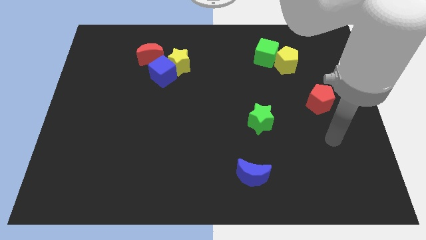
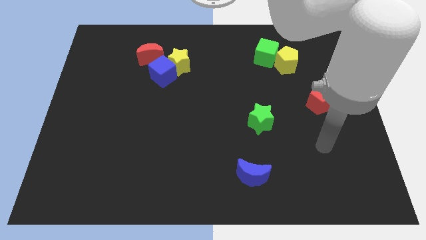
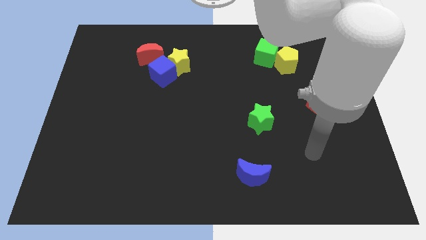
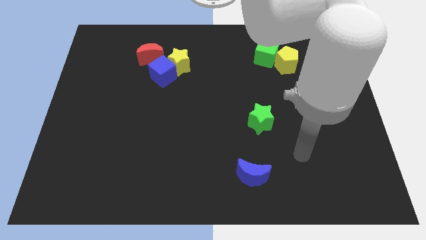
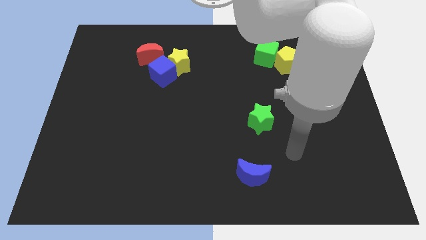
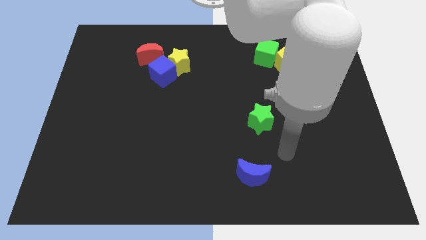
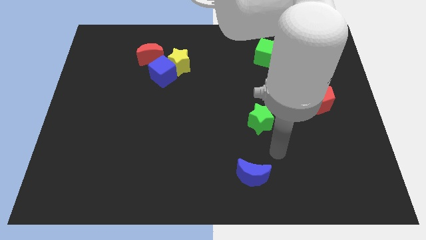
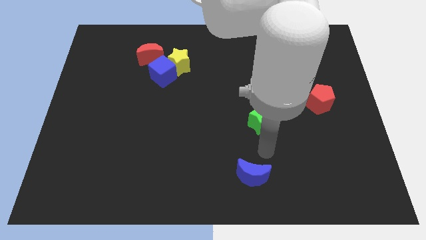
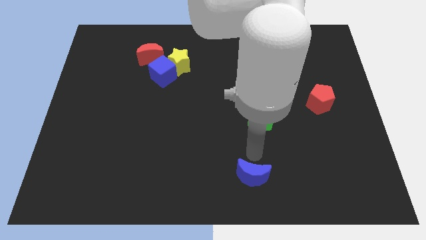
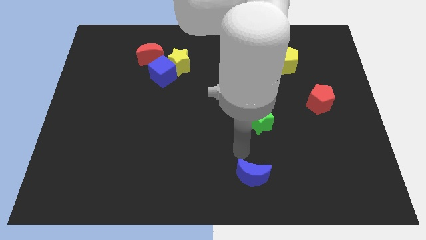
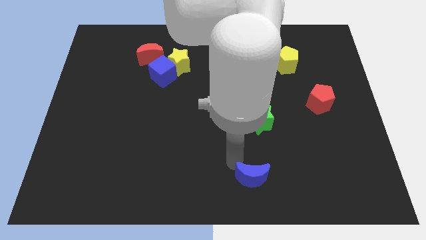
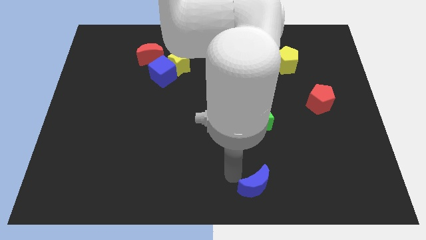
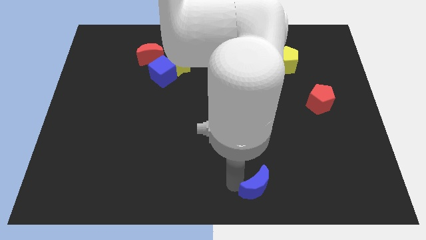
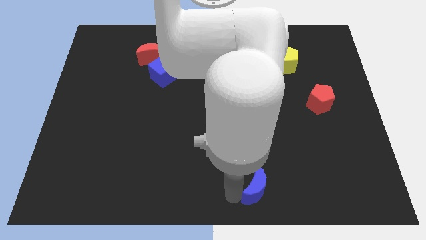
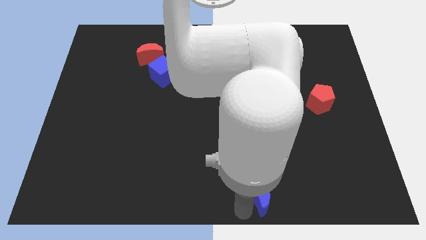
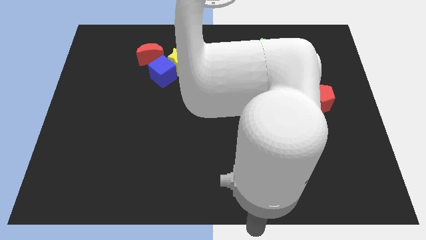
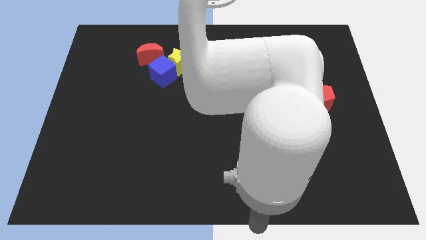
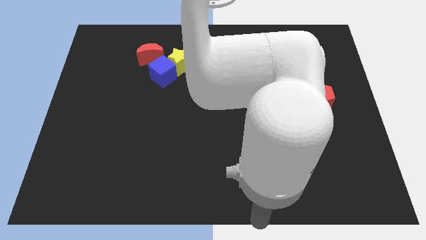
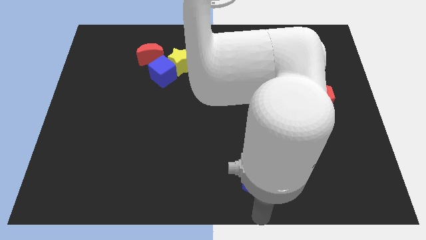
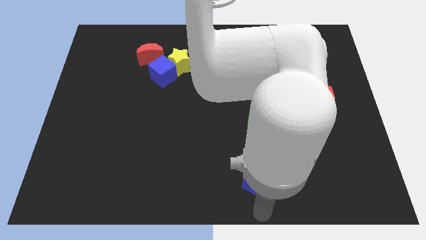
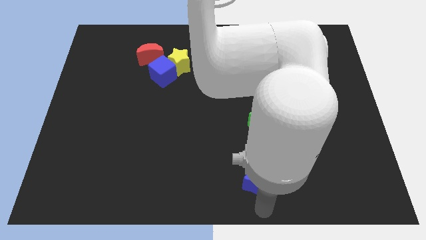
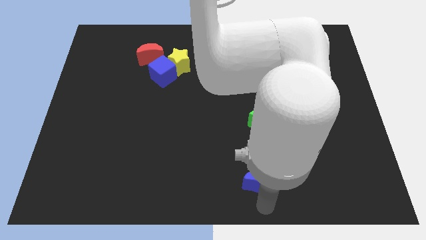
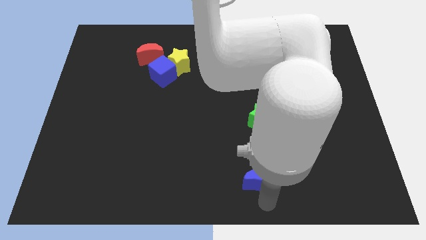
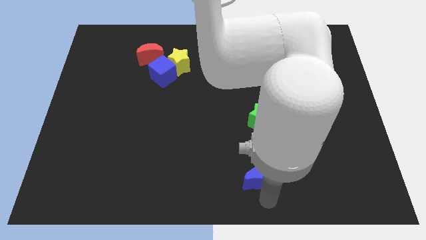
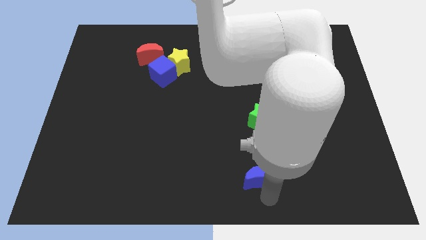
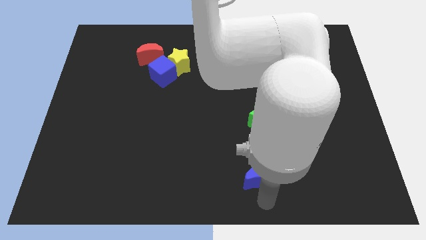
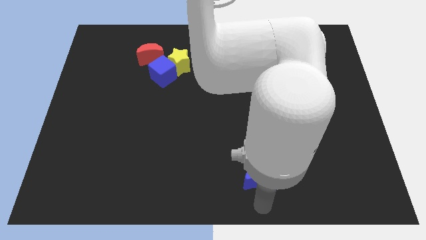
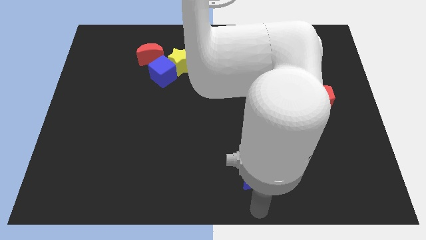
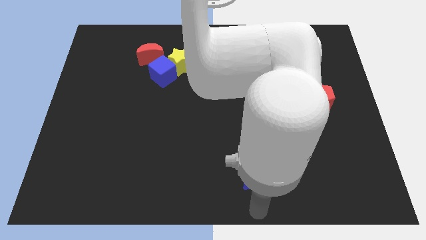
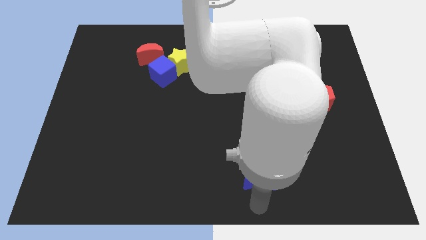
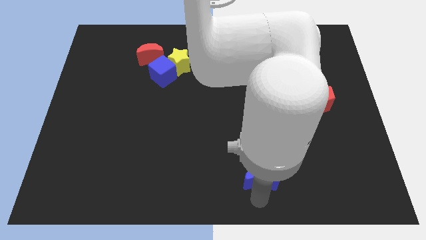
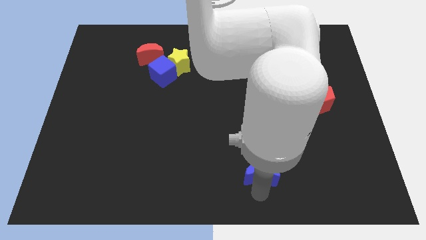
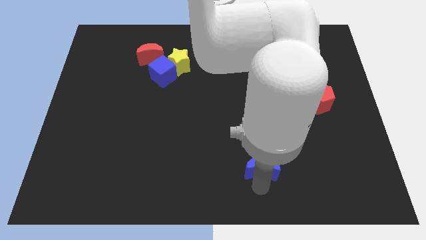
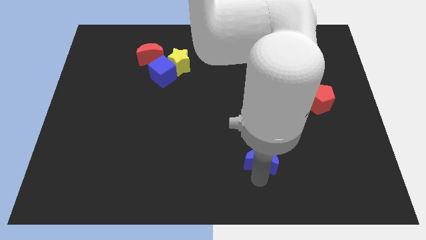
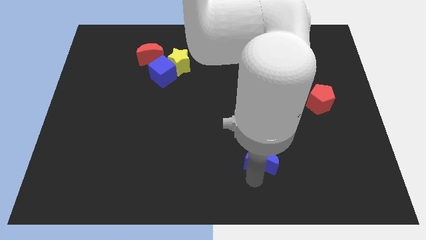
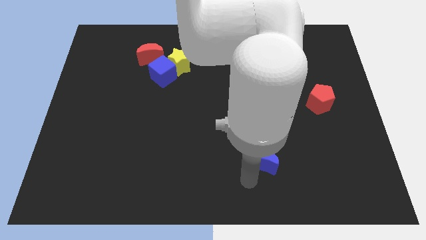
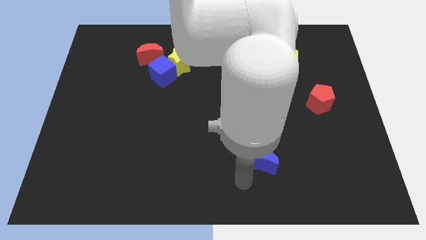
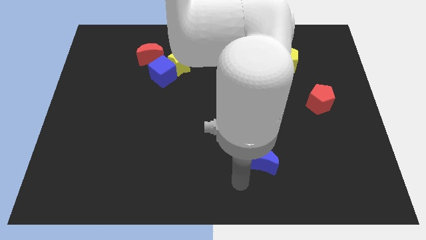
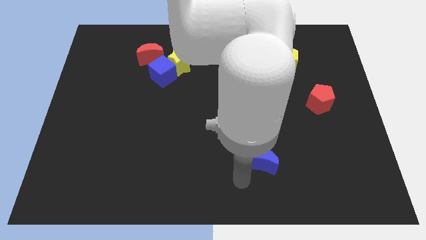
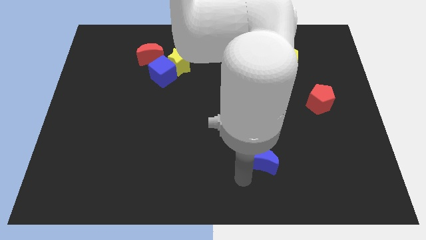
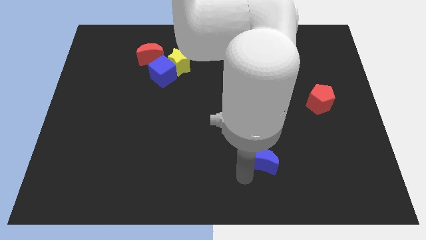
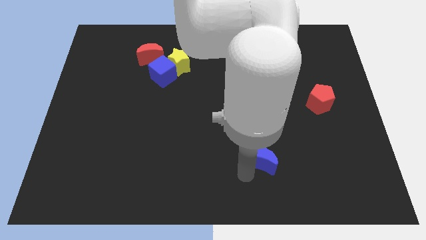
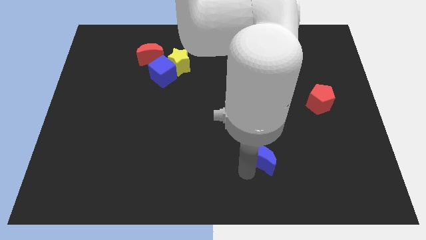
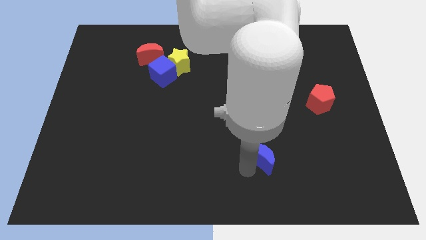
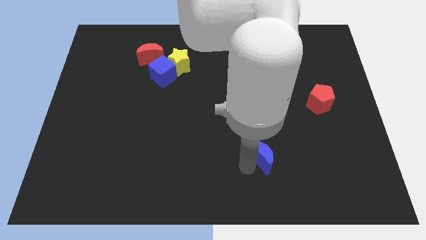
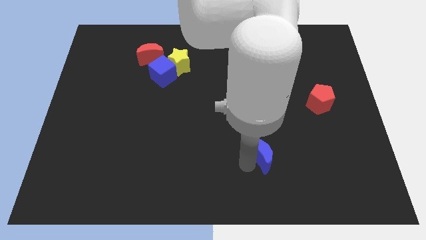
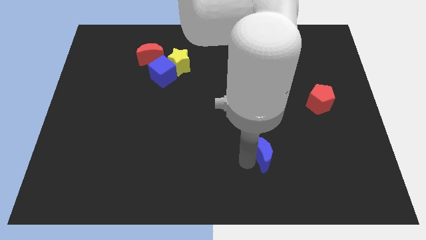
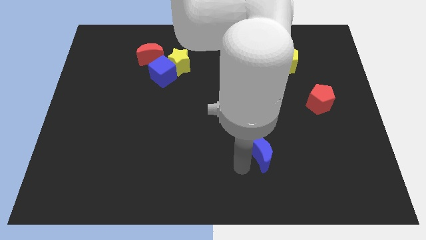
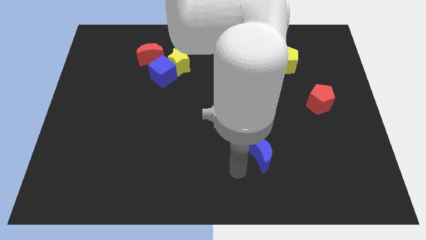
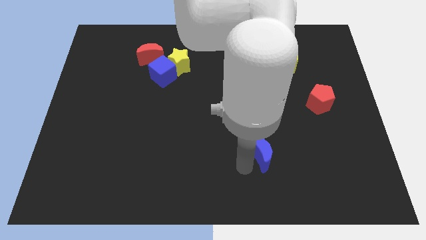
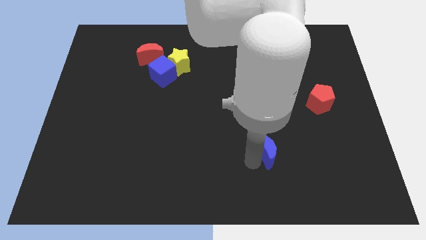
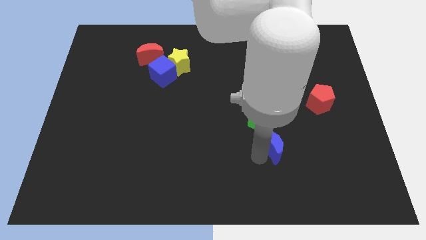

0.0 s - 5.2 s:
push the blue moon up and right a little bit

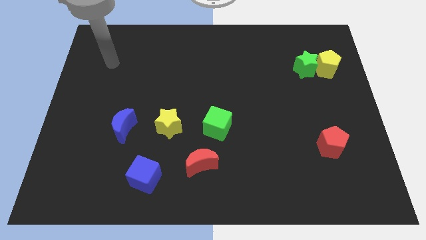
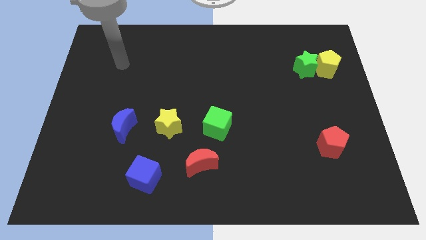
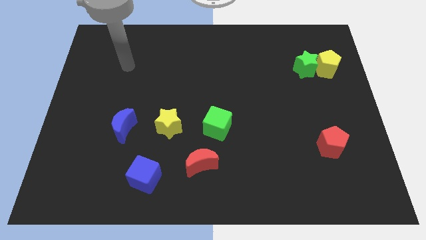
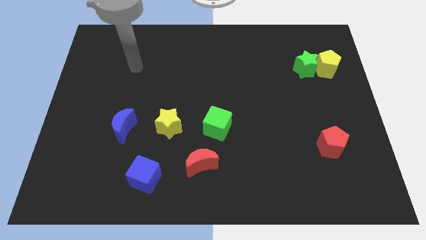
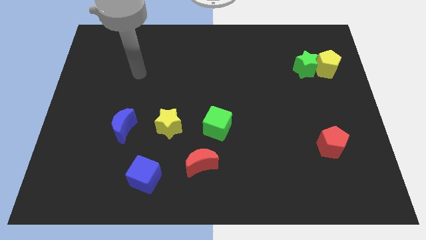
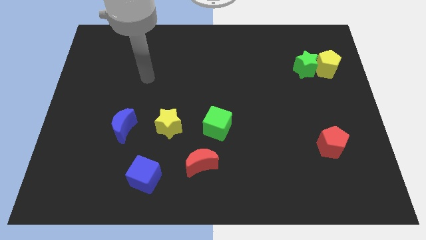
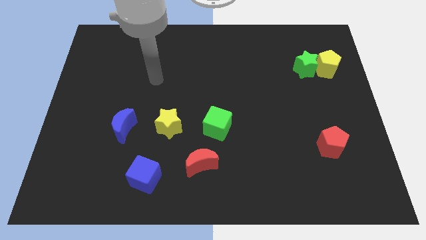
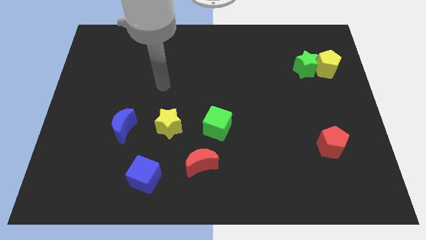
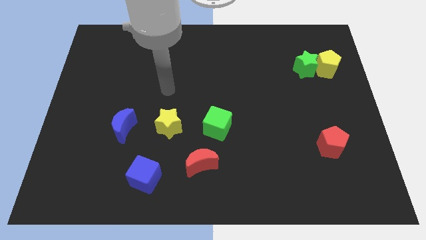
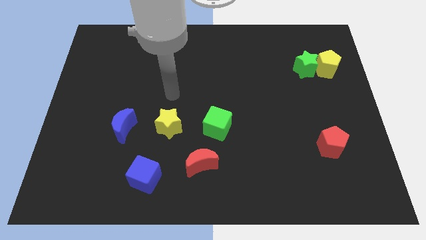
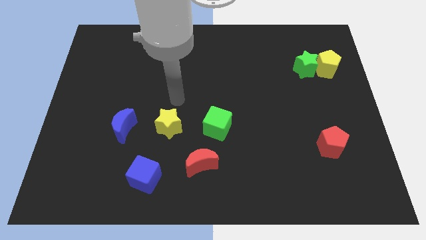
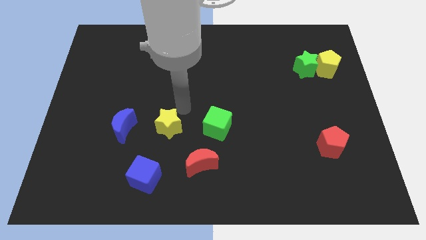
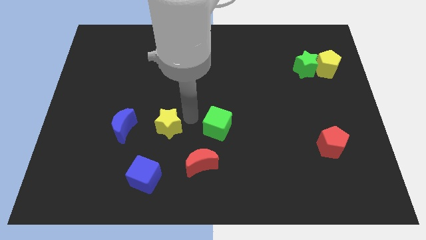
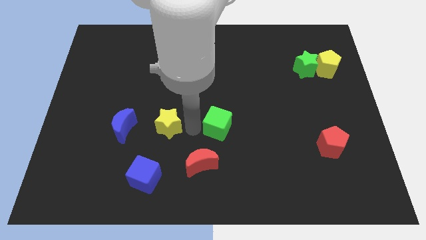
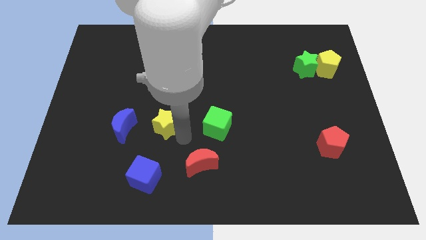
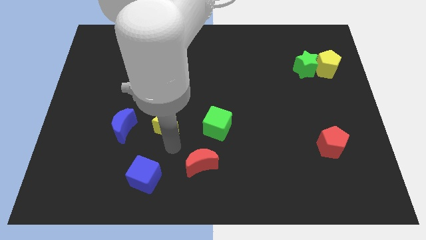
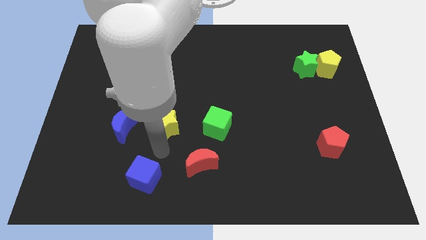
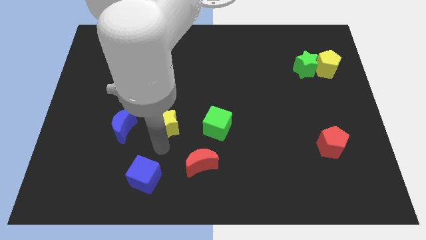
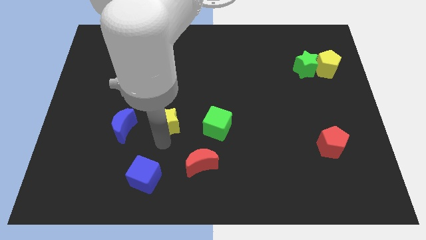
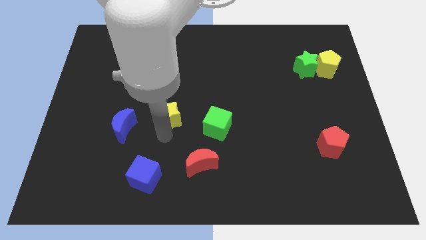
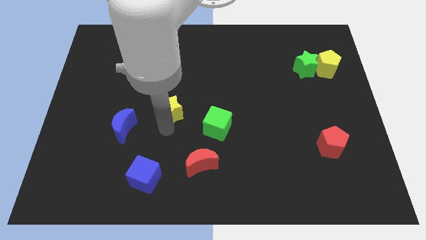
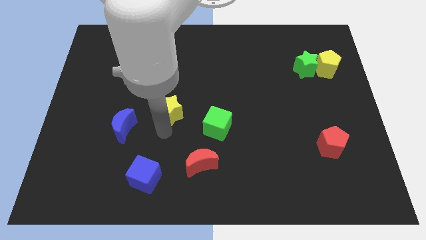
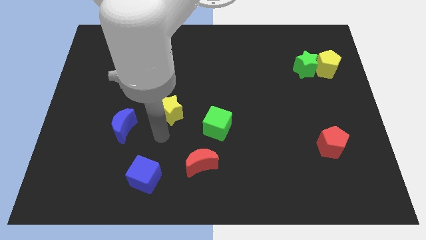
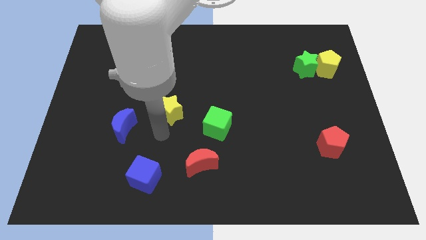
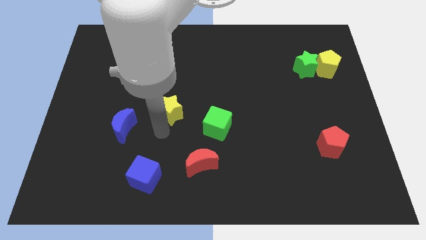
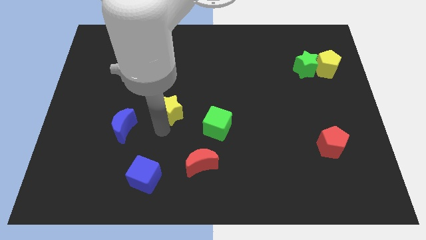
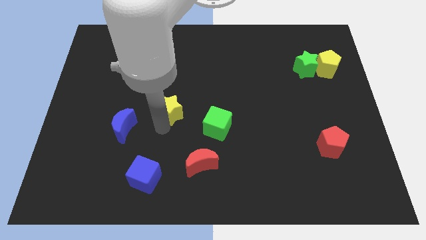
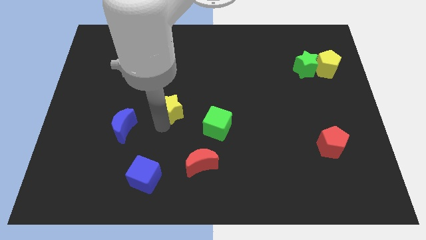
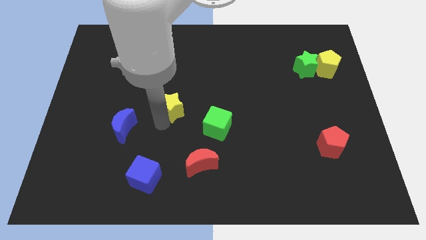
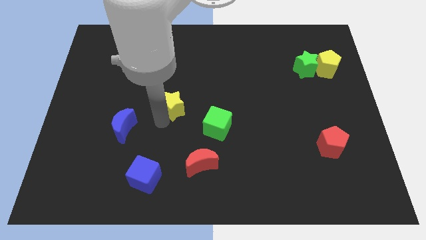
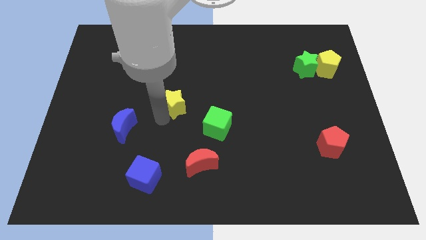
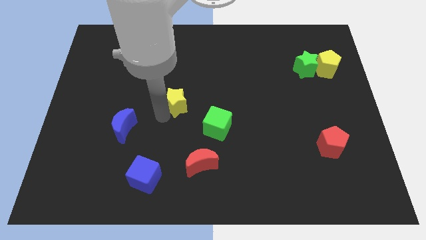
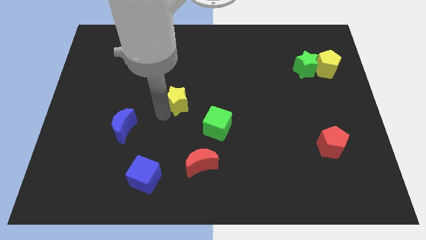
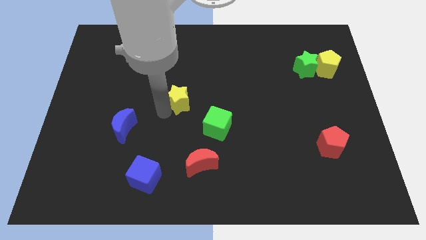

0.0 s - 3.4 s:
slightly move the yellow star upwards
